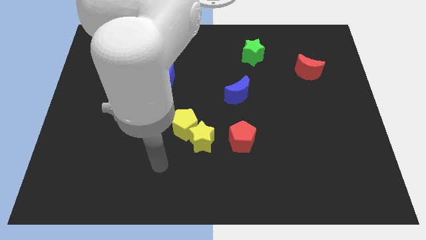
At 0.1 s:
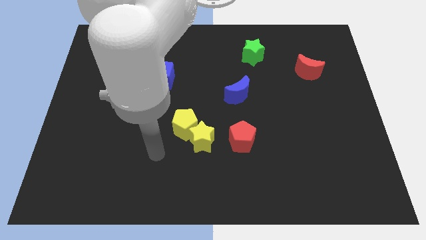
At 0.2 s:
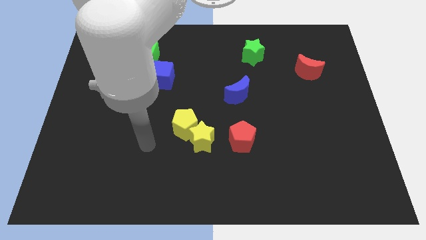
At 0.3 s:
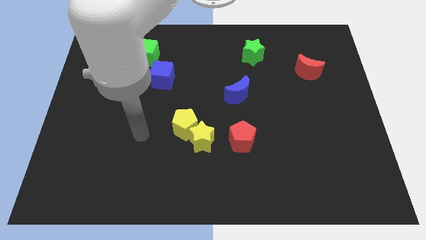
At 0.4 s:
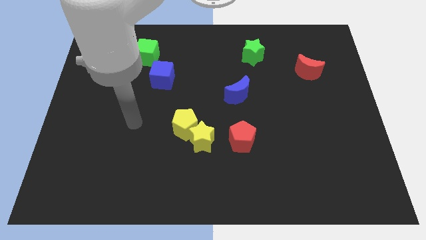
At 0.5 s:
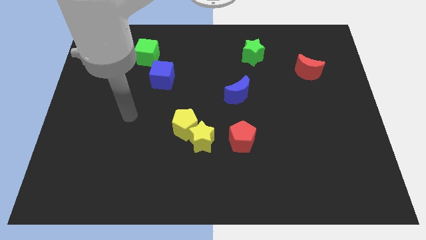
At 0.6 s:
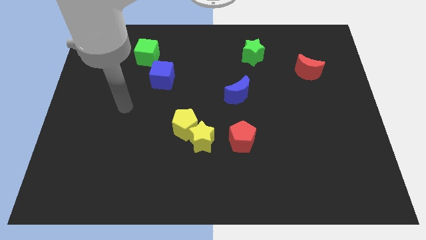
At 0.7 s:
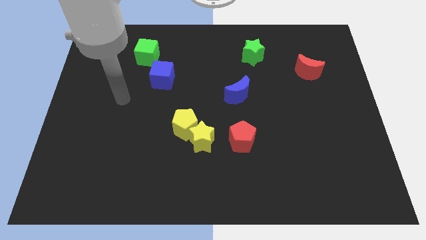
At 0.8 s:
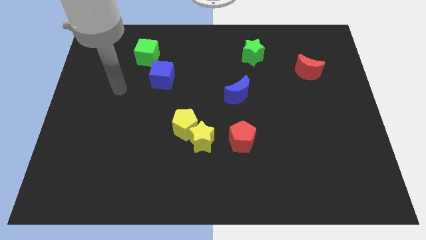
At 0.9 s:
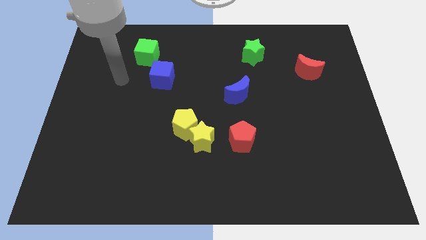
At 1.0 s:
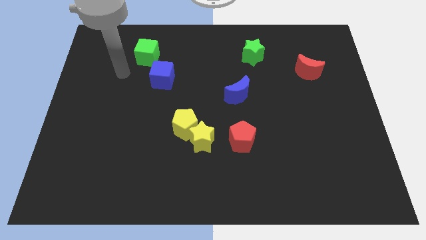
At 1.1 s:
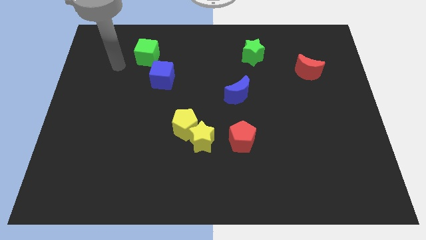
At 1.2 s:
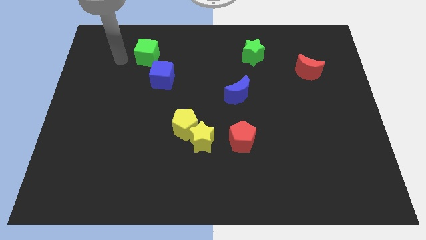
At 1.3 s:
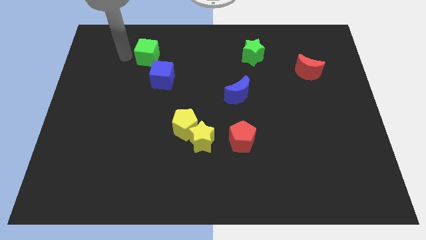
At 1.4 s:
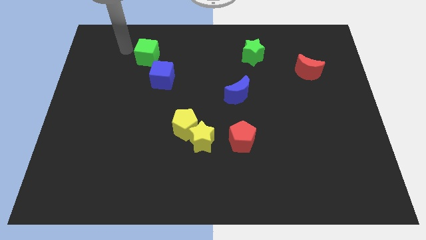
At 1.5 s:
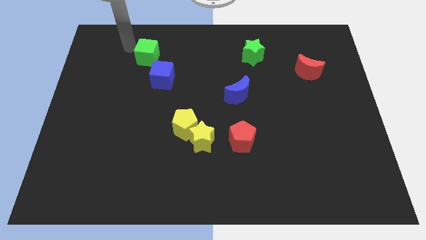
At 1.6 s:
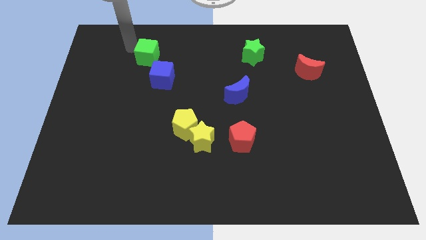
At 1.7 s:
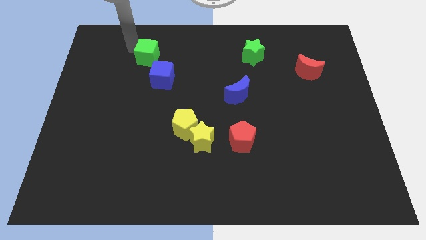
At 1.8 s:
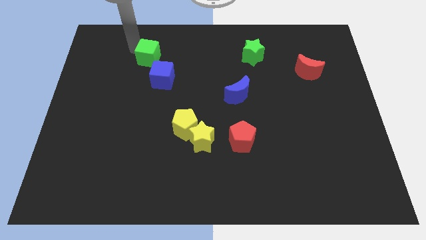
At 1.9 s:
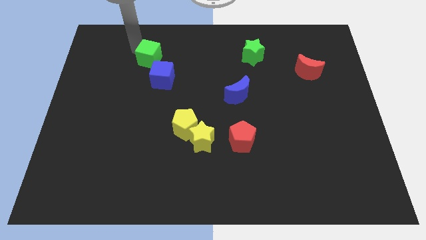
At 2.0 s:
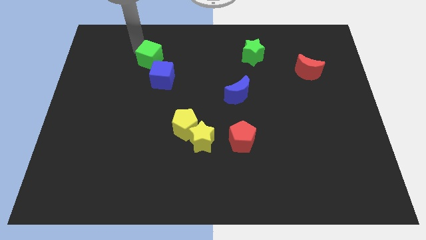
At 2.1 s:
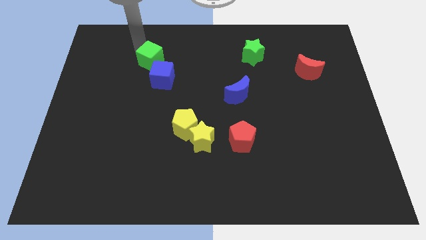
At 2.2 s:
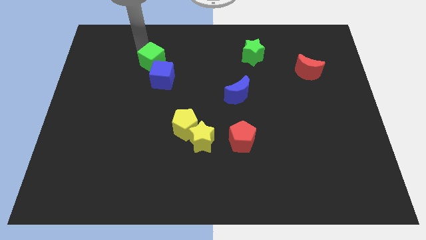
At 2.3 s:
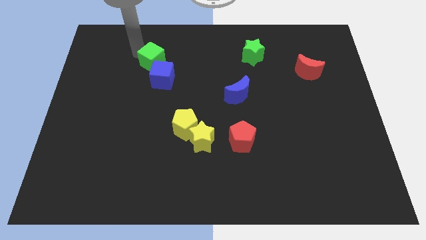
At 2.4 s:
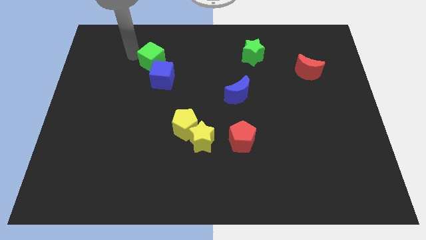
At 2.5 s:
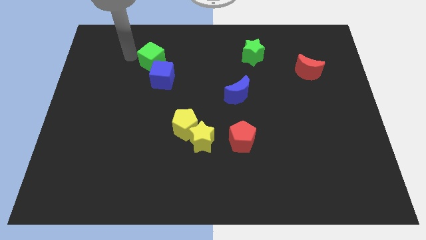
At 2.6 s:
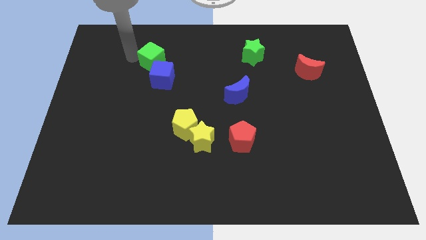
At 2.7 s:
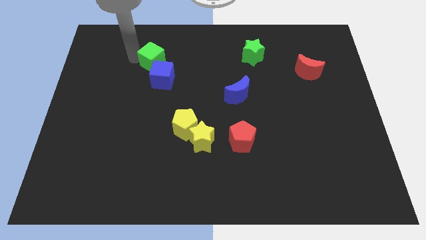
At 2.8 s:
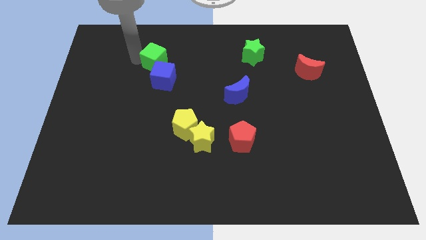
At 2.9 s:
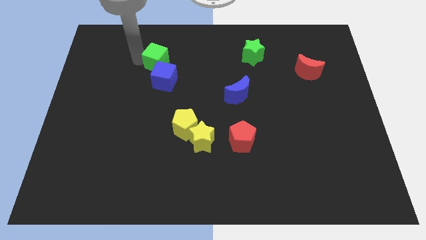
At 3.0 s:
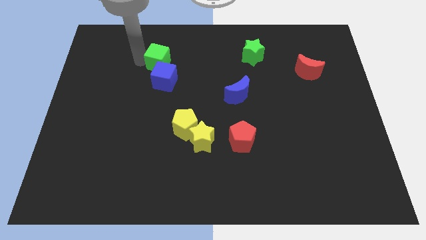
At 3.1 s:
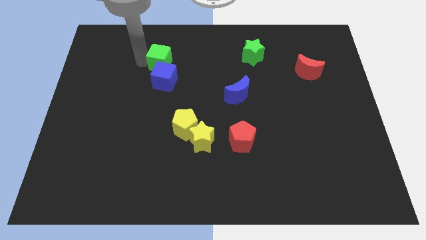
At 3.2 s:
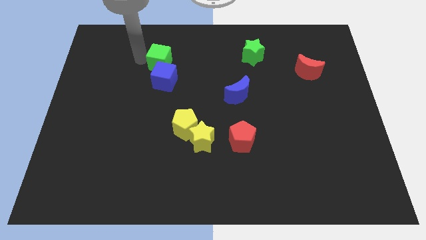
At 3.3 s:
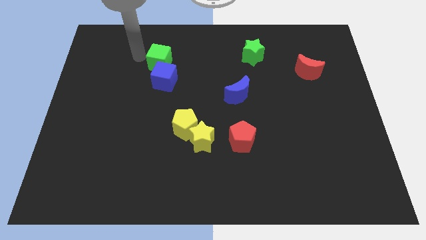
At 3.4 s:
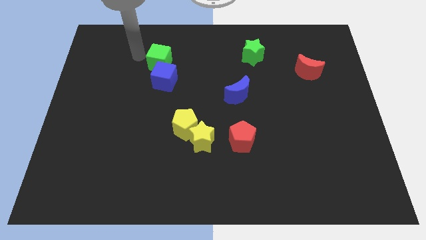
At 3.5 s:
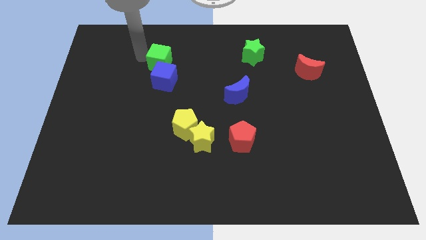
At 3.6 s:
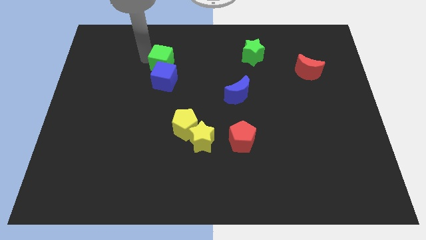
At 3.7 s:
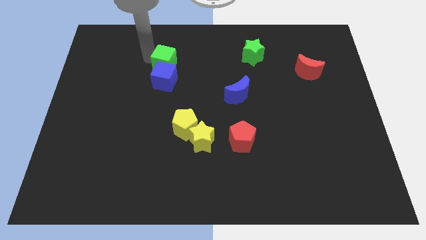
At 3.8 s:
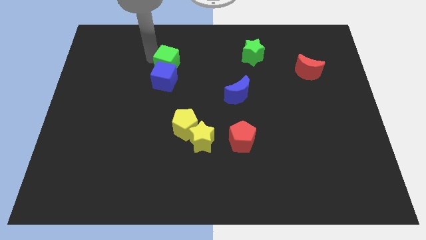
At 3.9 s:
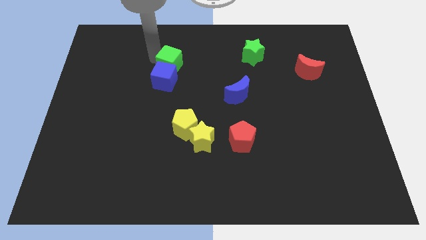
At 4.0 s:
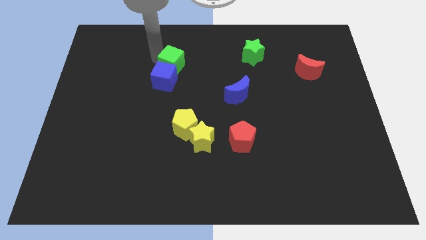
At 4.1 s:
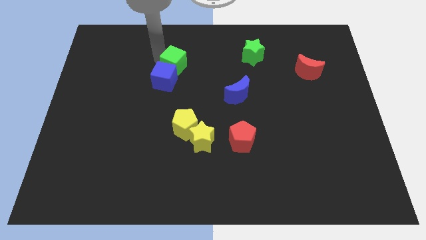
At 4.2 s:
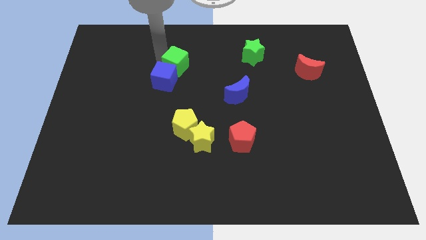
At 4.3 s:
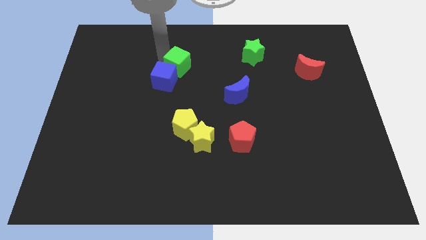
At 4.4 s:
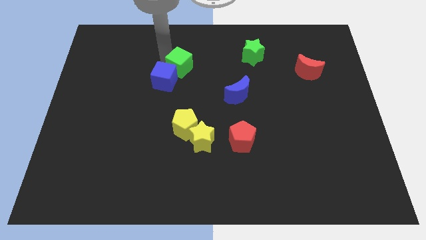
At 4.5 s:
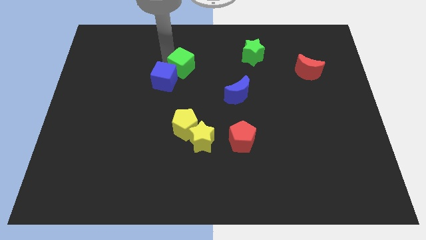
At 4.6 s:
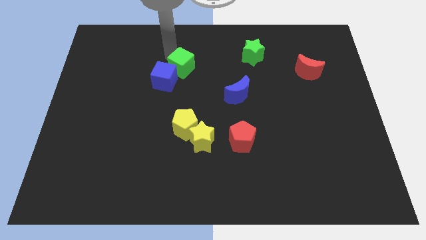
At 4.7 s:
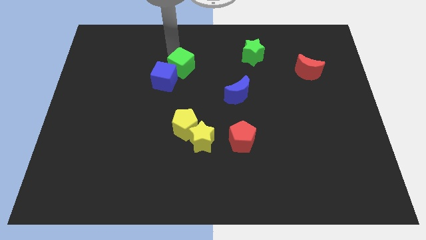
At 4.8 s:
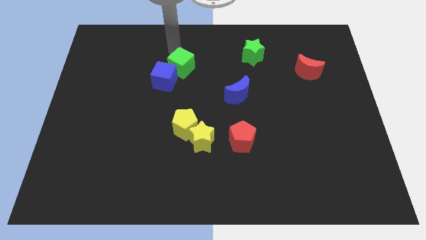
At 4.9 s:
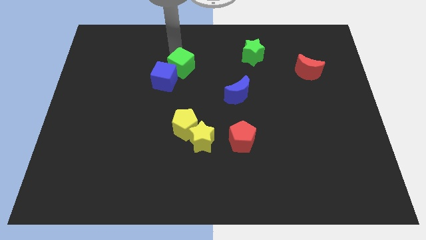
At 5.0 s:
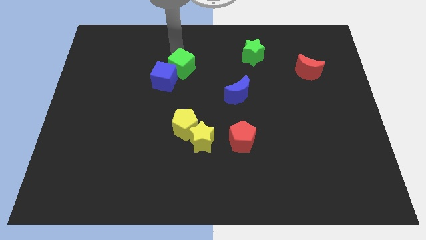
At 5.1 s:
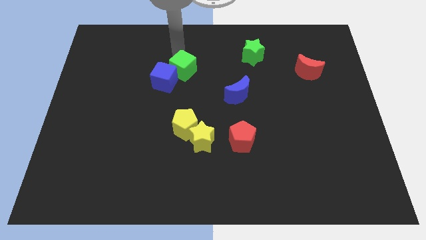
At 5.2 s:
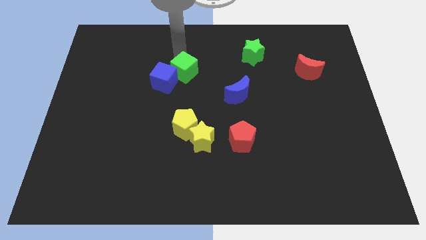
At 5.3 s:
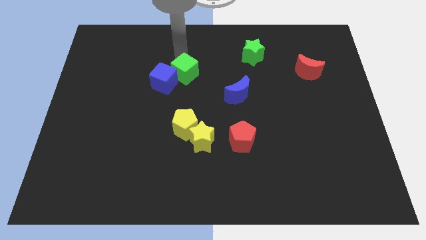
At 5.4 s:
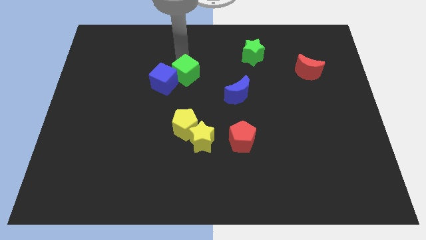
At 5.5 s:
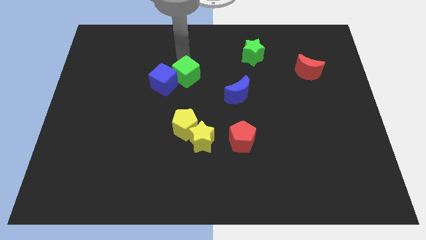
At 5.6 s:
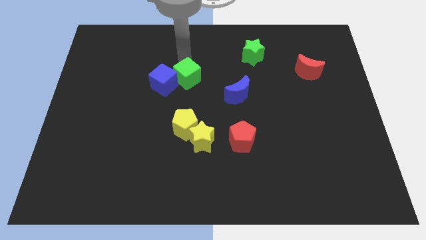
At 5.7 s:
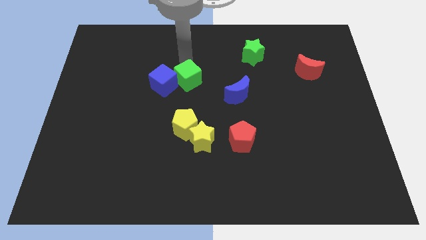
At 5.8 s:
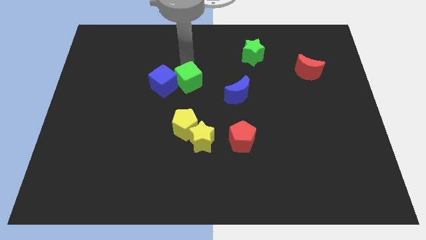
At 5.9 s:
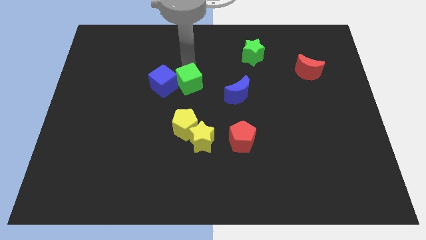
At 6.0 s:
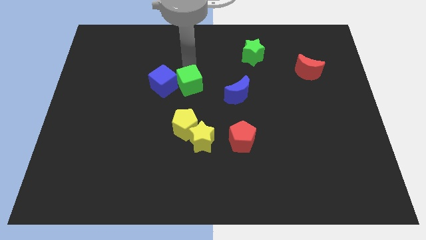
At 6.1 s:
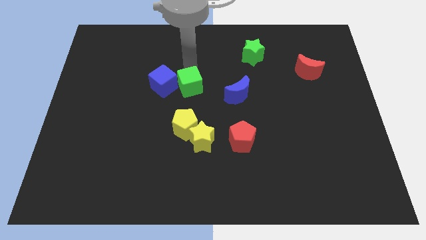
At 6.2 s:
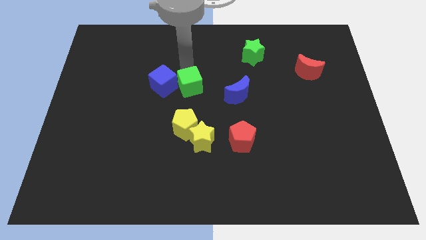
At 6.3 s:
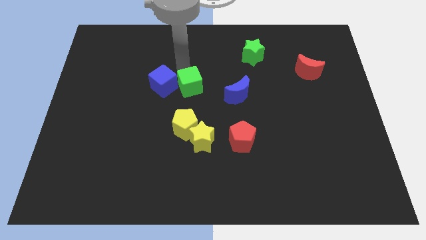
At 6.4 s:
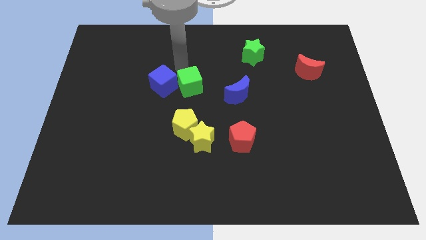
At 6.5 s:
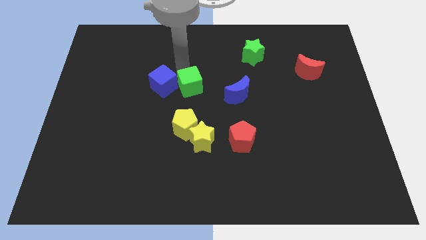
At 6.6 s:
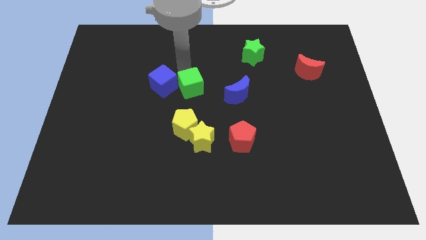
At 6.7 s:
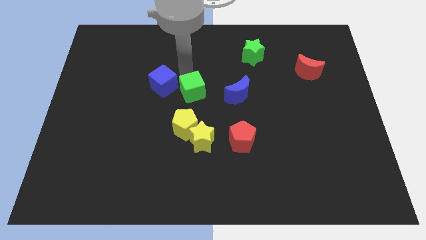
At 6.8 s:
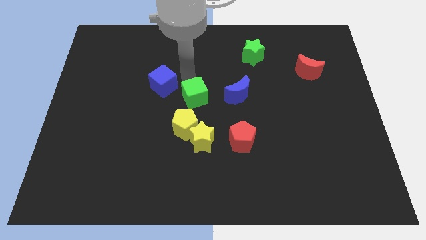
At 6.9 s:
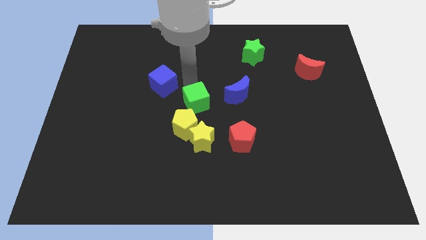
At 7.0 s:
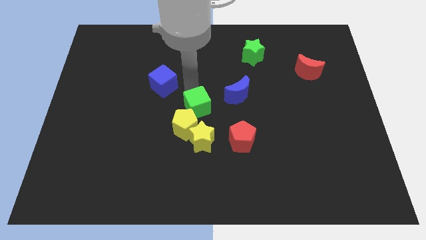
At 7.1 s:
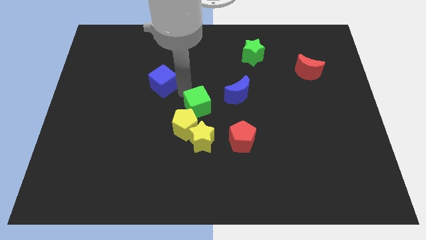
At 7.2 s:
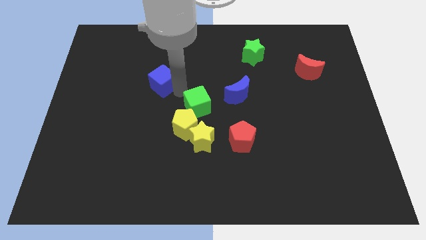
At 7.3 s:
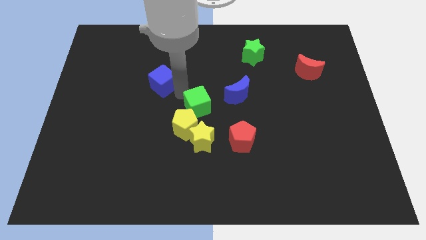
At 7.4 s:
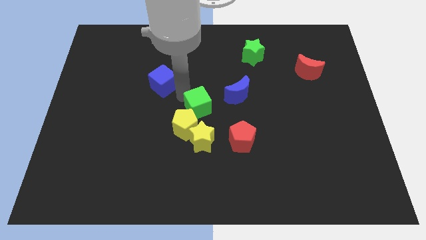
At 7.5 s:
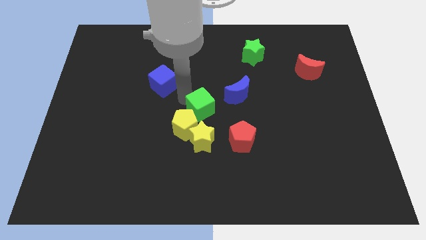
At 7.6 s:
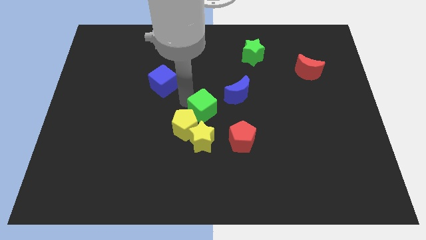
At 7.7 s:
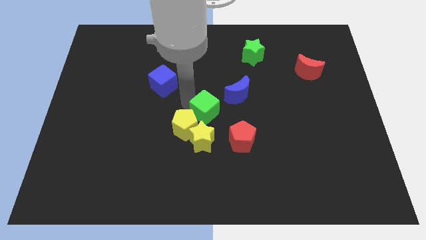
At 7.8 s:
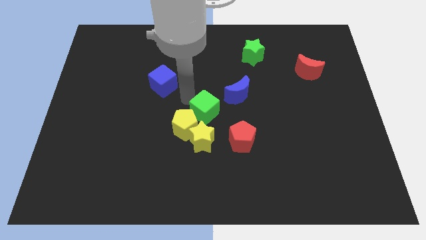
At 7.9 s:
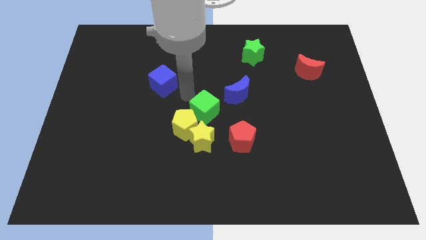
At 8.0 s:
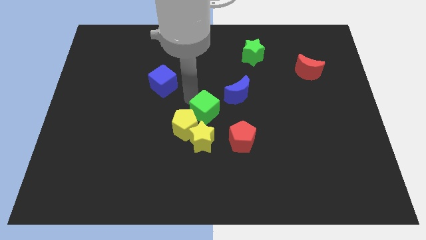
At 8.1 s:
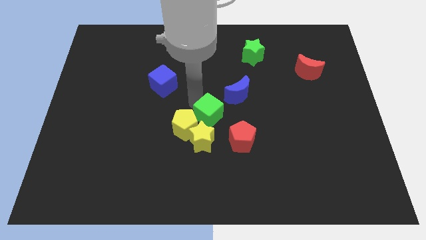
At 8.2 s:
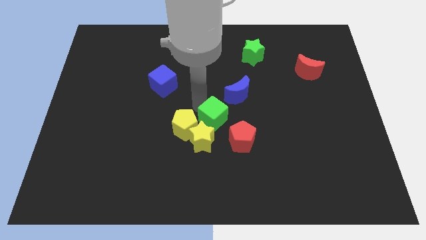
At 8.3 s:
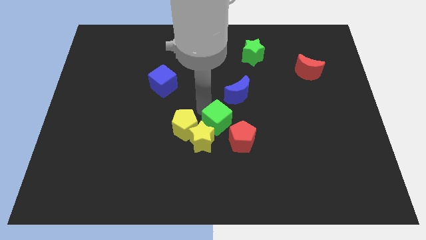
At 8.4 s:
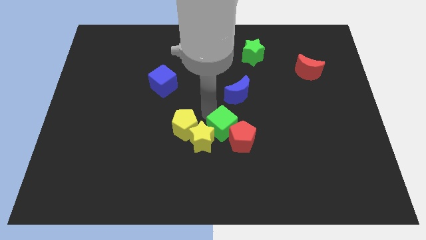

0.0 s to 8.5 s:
slide the green cube to the red pentagon
